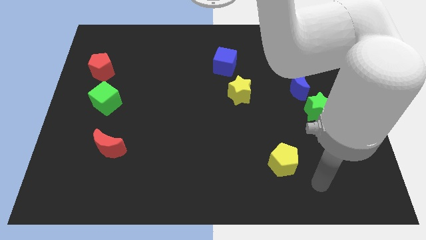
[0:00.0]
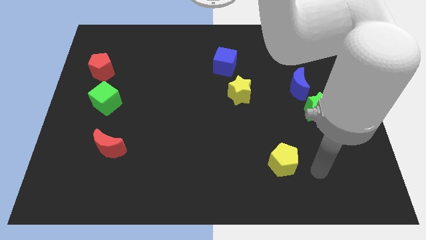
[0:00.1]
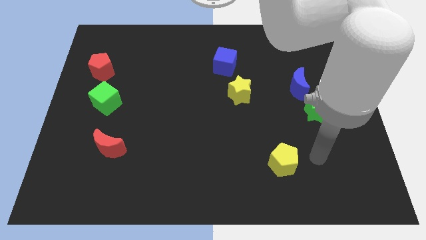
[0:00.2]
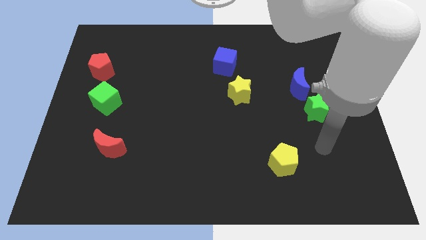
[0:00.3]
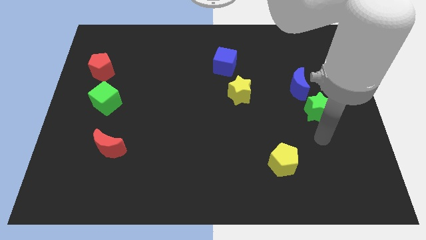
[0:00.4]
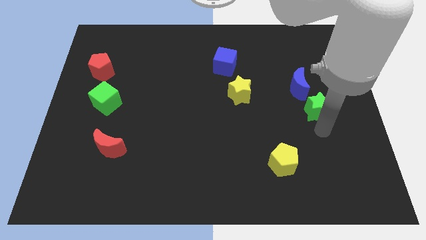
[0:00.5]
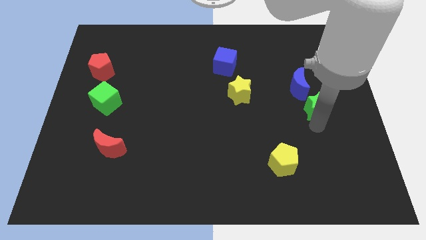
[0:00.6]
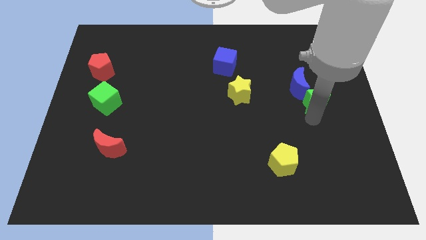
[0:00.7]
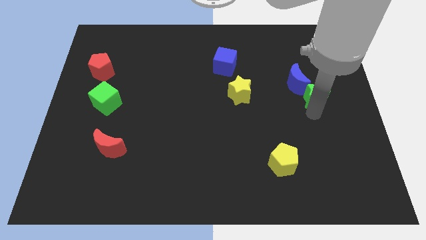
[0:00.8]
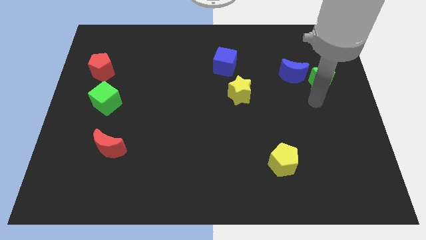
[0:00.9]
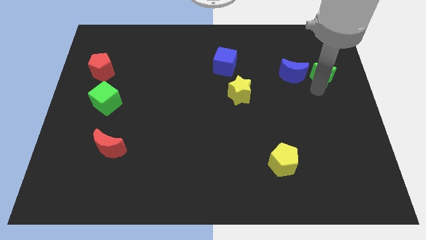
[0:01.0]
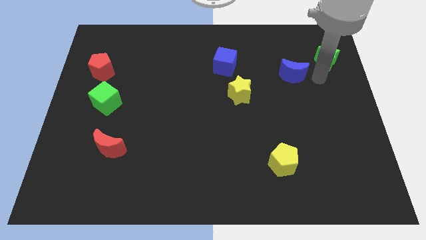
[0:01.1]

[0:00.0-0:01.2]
separate the blue moon from the green star

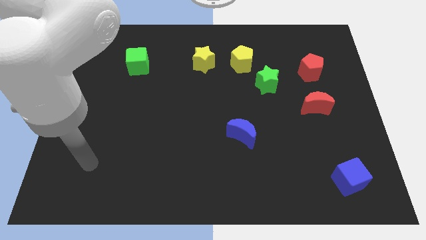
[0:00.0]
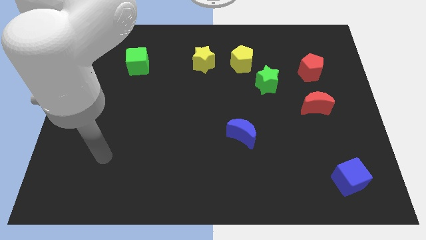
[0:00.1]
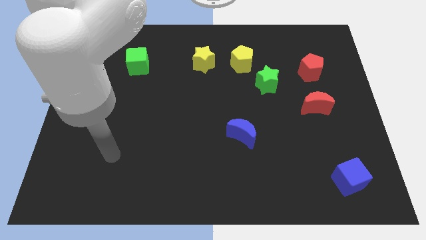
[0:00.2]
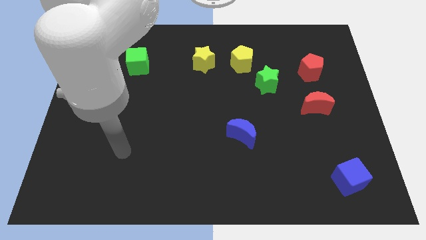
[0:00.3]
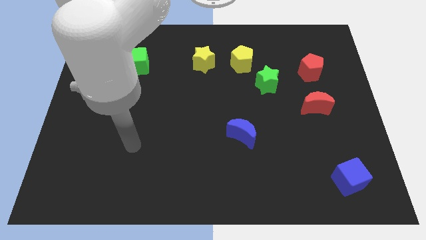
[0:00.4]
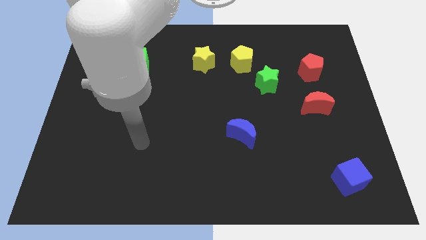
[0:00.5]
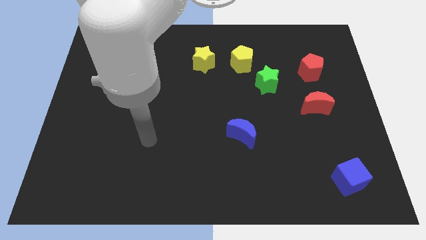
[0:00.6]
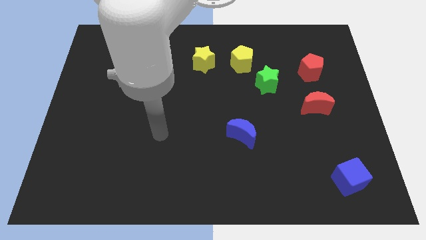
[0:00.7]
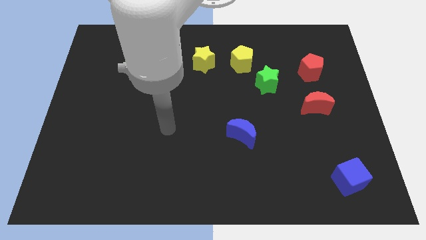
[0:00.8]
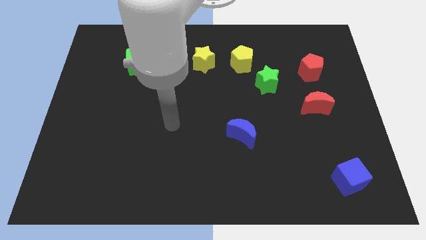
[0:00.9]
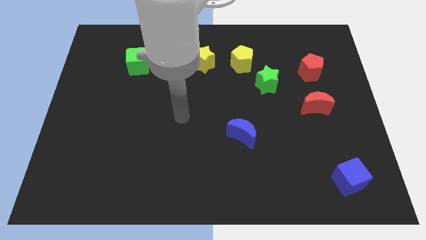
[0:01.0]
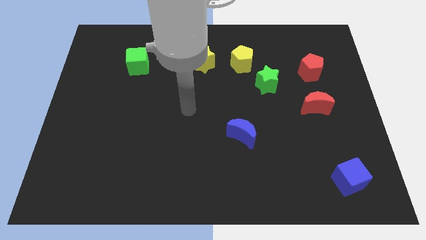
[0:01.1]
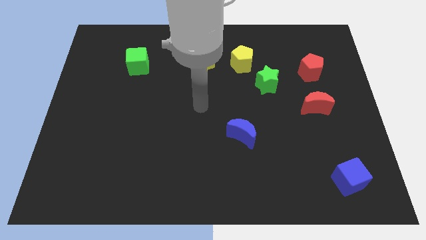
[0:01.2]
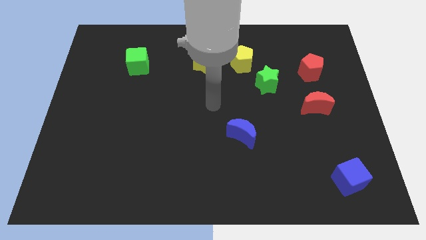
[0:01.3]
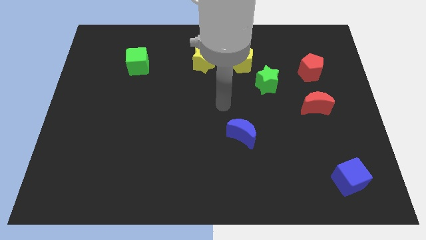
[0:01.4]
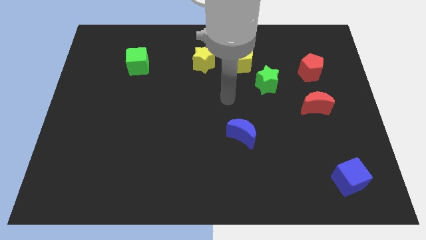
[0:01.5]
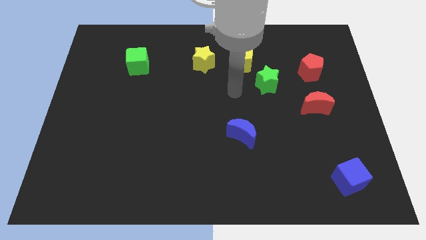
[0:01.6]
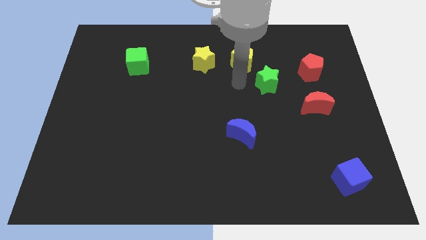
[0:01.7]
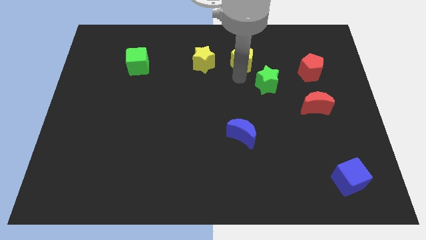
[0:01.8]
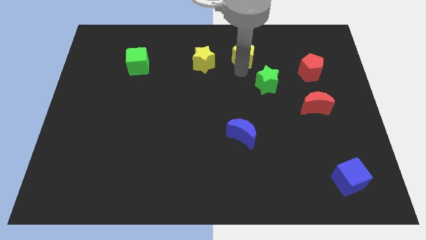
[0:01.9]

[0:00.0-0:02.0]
pull the green star apart from the yellow pentagon

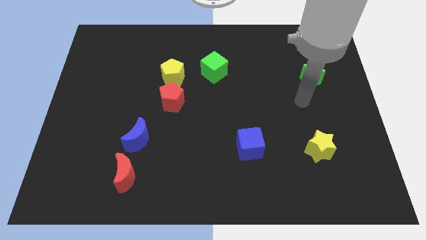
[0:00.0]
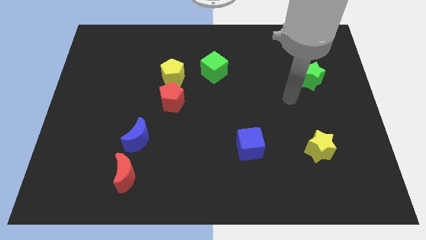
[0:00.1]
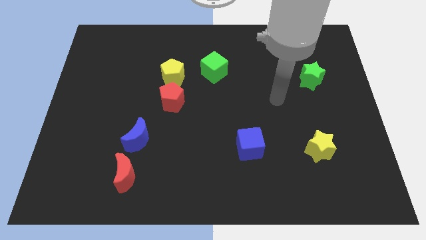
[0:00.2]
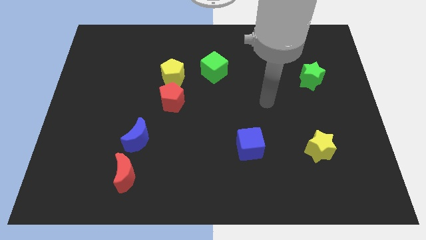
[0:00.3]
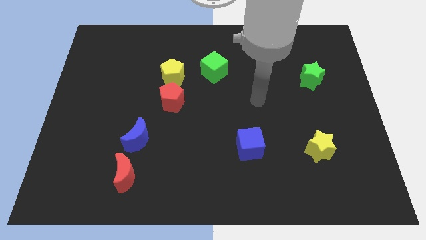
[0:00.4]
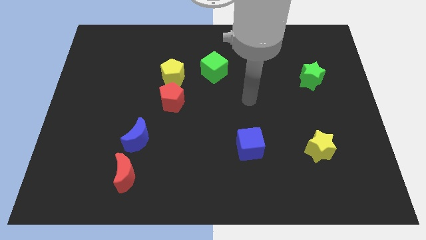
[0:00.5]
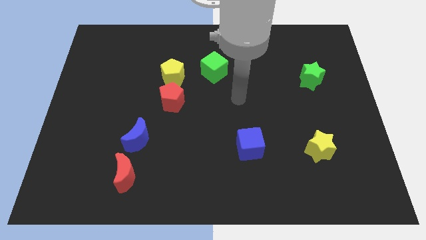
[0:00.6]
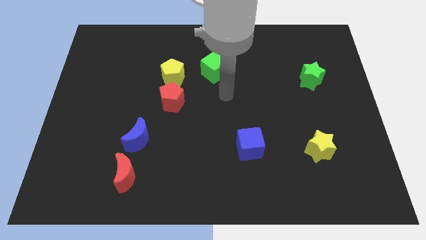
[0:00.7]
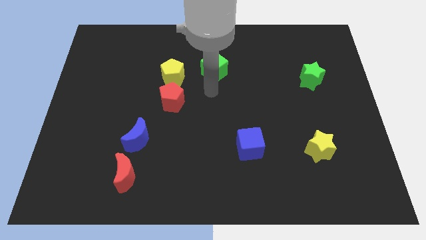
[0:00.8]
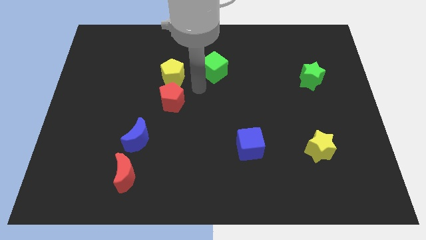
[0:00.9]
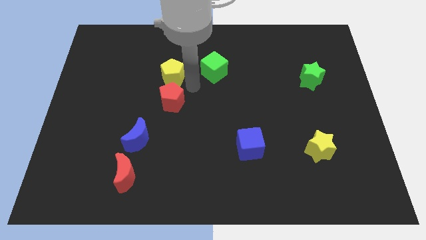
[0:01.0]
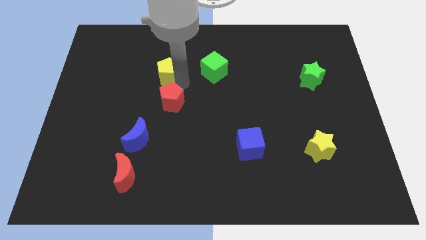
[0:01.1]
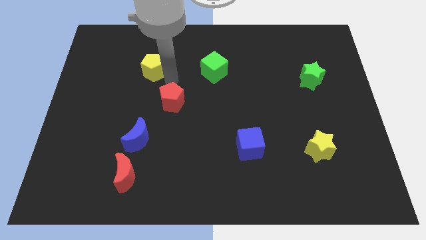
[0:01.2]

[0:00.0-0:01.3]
separate the red pentagon from the yellow pentagon

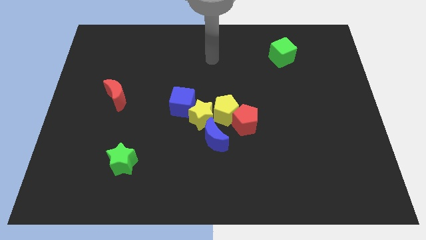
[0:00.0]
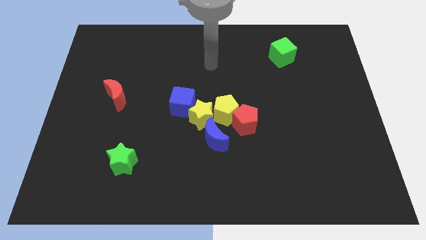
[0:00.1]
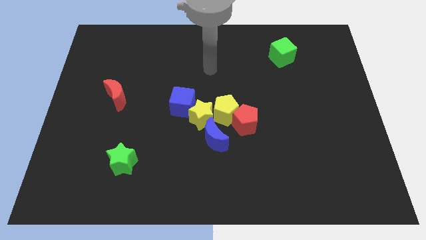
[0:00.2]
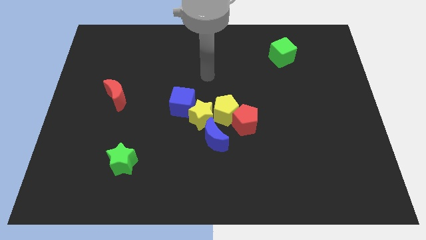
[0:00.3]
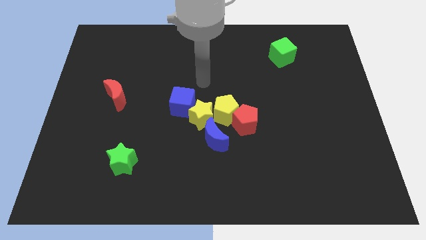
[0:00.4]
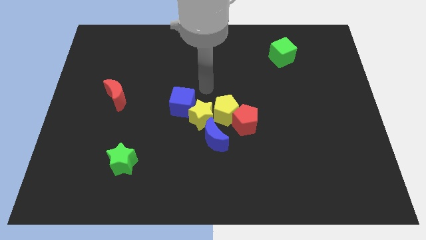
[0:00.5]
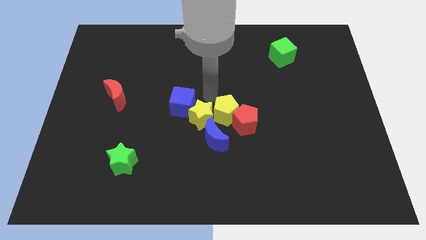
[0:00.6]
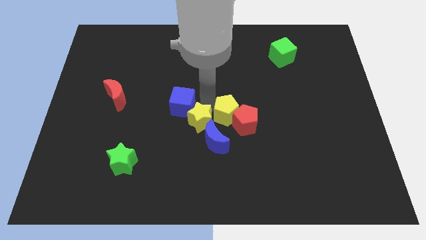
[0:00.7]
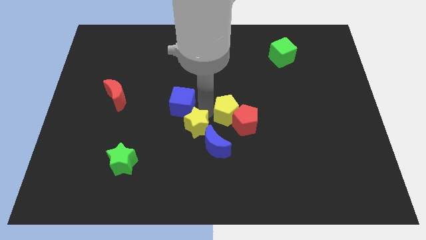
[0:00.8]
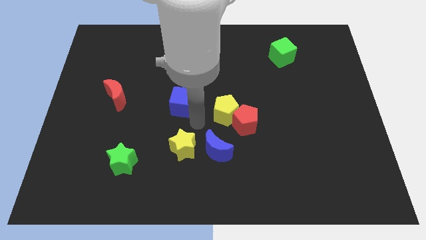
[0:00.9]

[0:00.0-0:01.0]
separate the blue cube from the yellow star

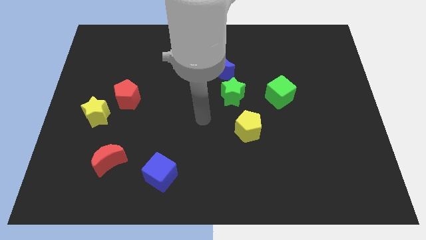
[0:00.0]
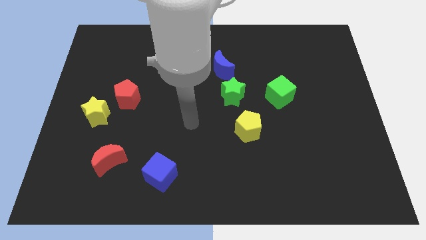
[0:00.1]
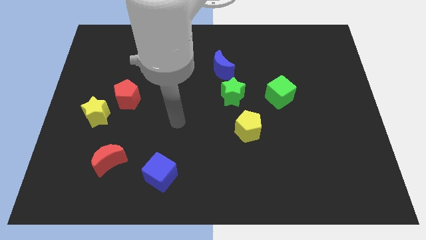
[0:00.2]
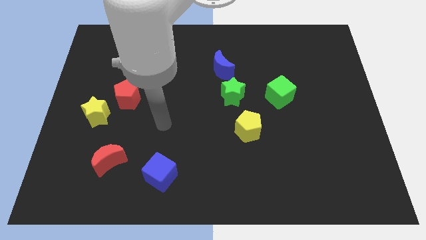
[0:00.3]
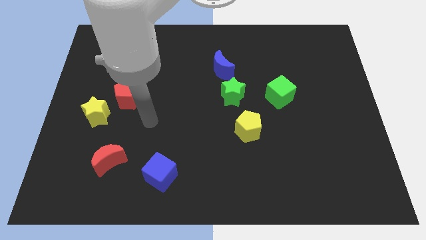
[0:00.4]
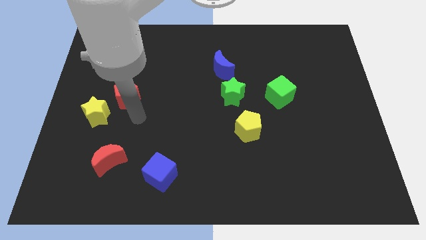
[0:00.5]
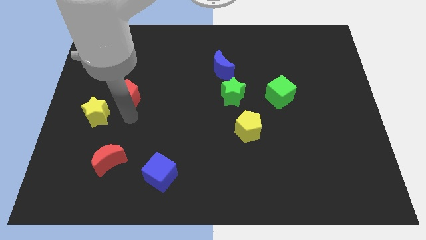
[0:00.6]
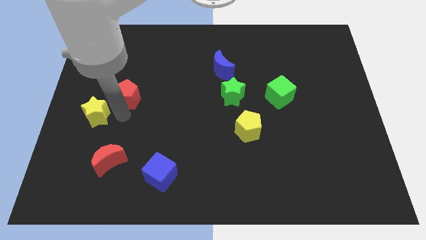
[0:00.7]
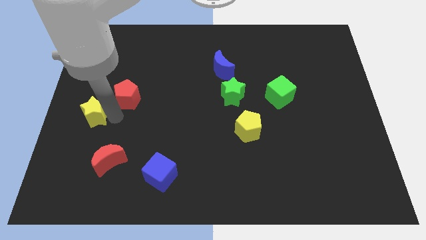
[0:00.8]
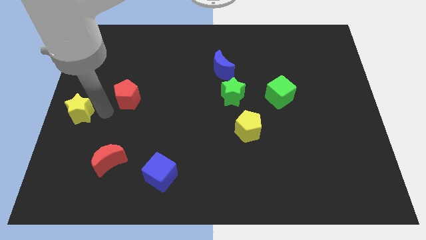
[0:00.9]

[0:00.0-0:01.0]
move the red pentagon away from the yellow star

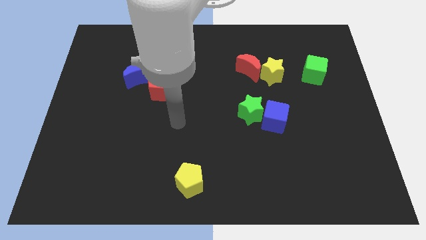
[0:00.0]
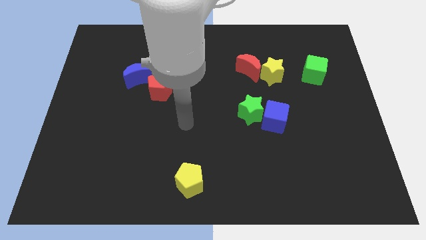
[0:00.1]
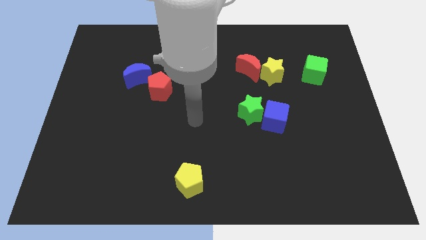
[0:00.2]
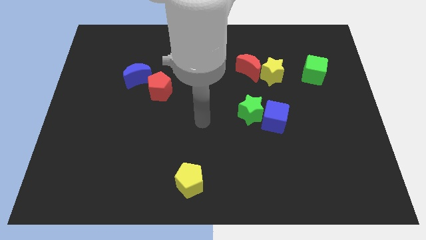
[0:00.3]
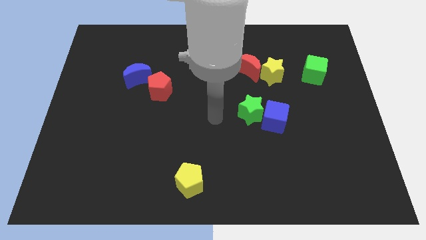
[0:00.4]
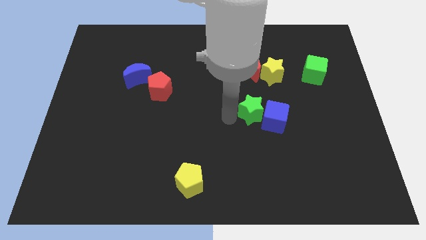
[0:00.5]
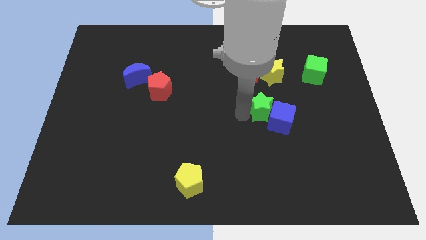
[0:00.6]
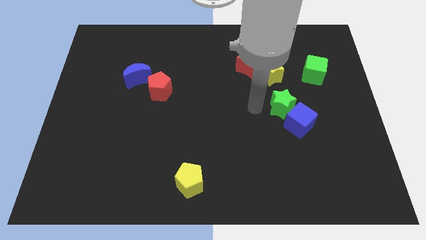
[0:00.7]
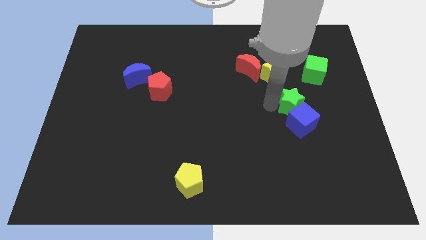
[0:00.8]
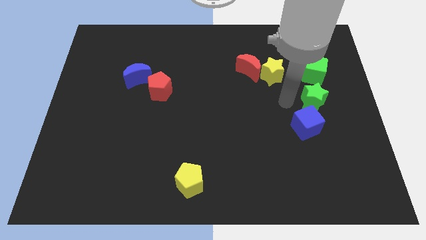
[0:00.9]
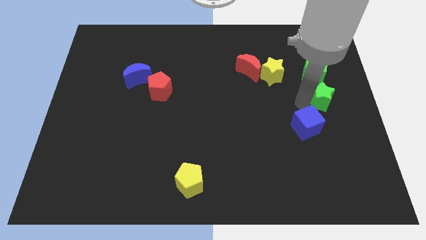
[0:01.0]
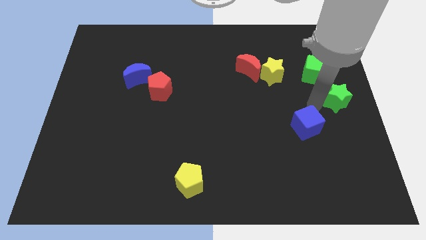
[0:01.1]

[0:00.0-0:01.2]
separate the blue cube from the green star

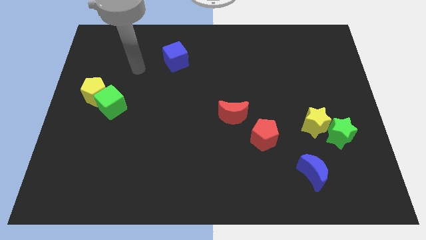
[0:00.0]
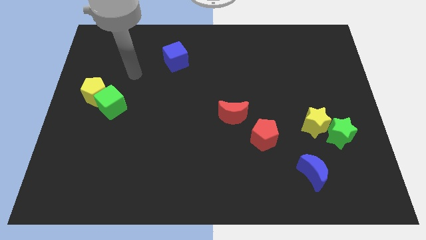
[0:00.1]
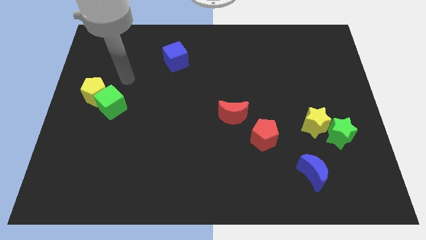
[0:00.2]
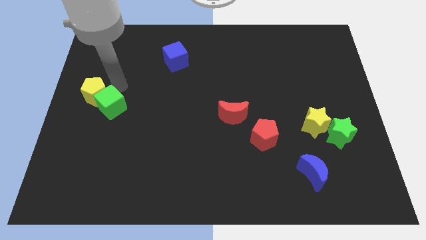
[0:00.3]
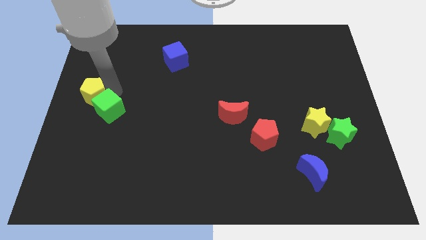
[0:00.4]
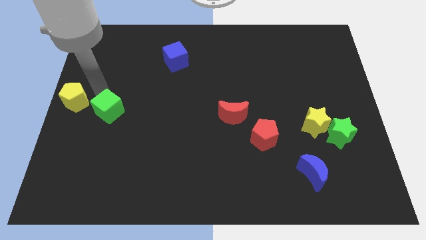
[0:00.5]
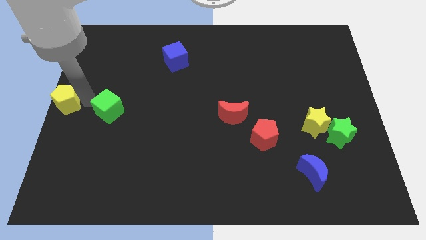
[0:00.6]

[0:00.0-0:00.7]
move the green cube away from the yellow pentagon

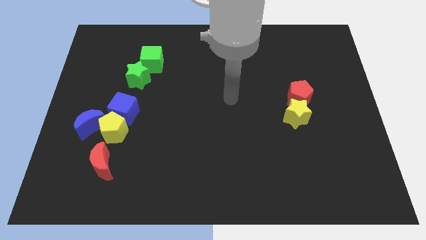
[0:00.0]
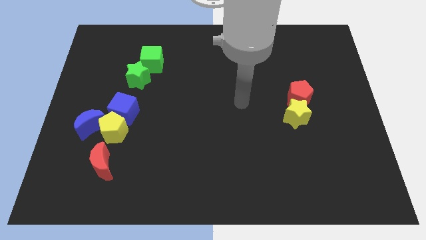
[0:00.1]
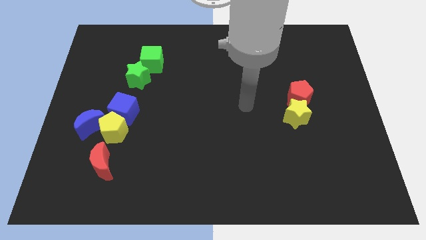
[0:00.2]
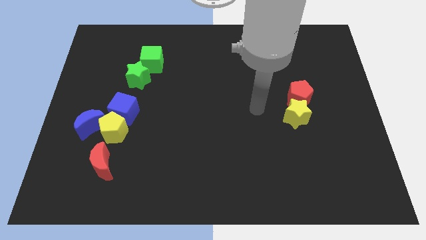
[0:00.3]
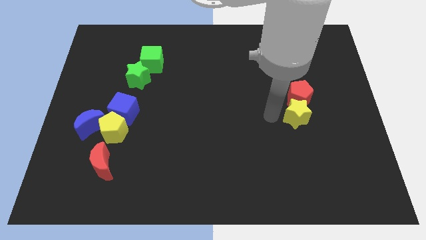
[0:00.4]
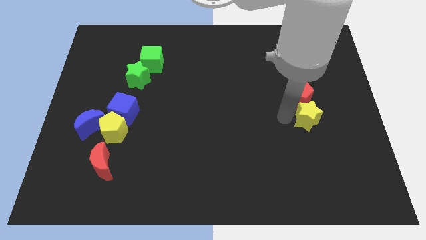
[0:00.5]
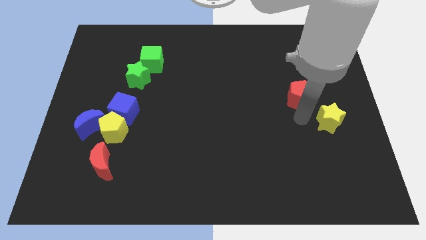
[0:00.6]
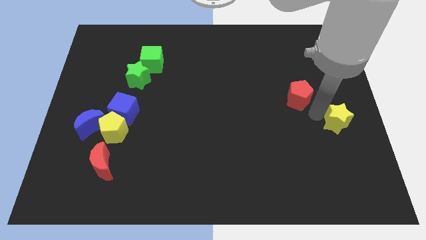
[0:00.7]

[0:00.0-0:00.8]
pull the red pentagon apart from the yellow star
